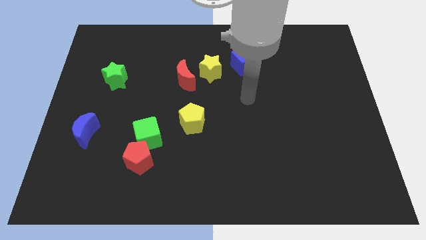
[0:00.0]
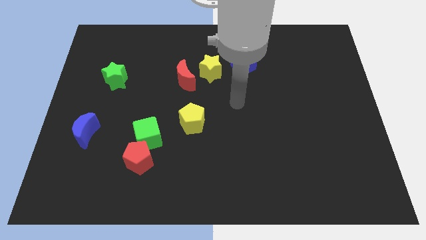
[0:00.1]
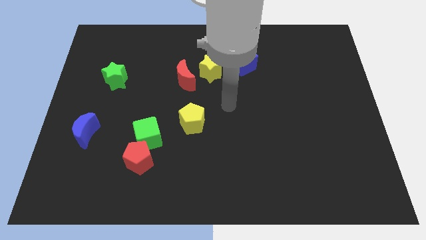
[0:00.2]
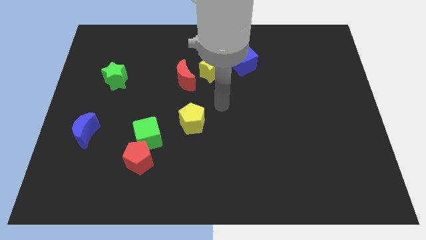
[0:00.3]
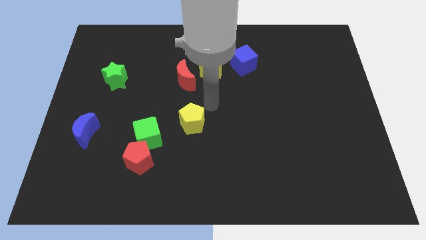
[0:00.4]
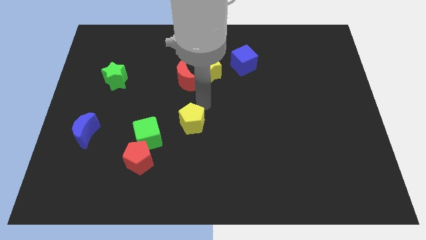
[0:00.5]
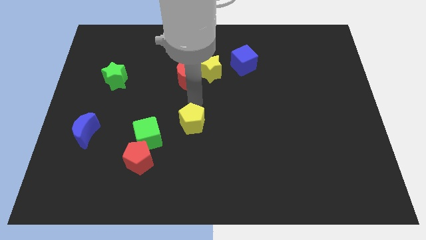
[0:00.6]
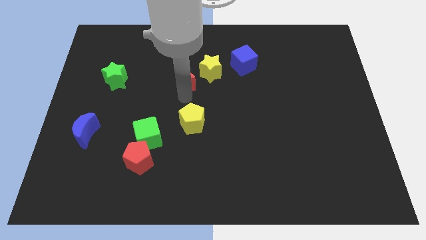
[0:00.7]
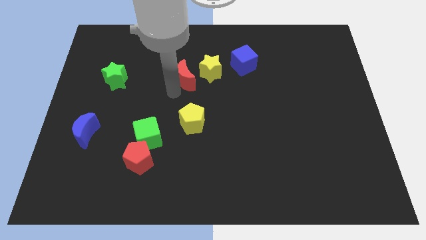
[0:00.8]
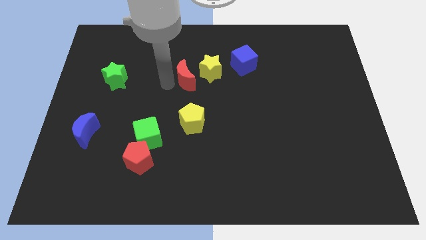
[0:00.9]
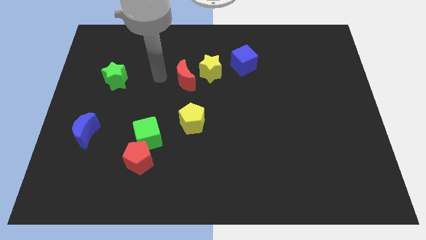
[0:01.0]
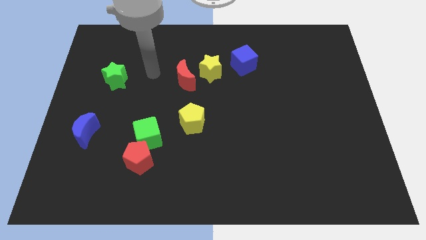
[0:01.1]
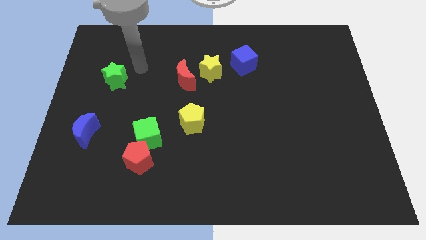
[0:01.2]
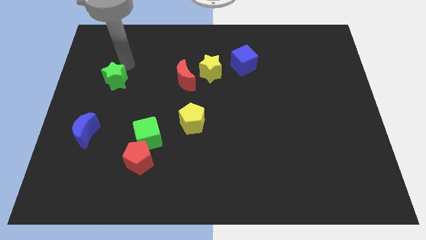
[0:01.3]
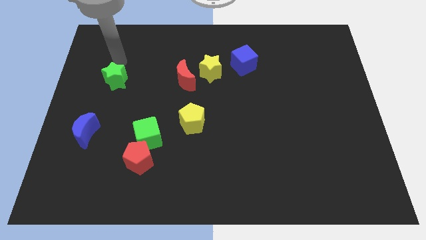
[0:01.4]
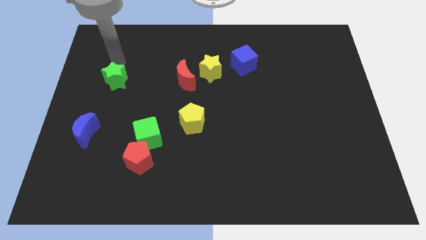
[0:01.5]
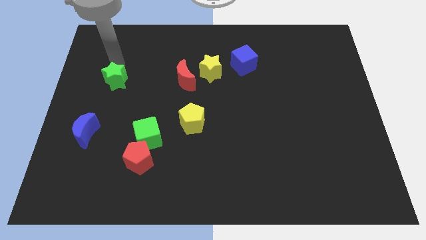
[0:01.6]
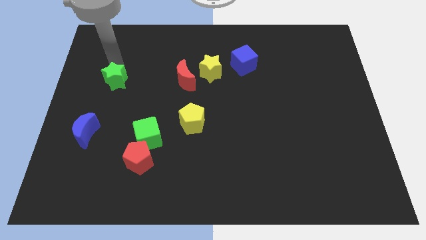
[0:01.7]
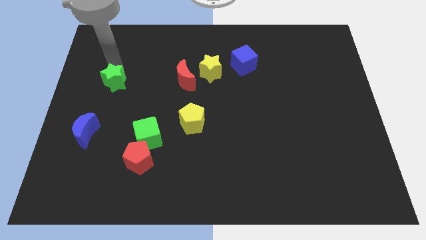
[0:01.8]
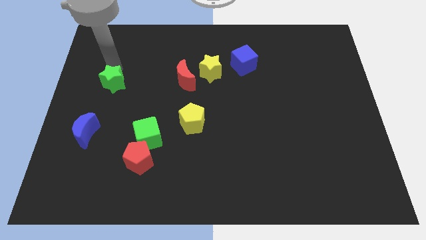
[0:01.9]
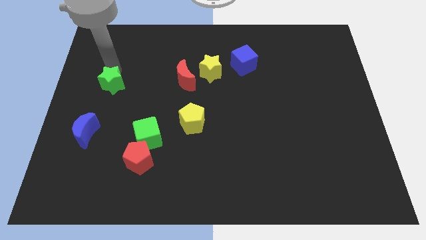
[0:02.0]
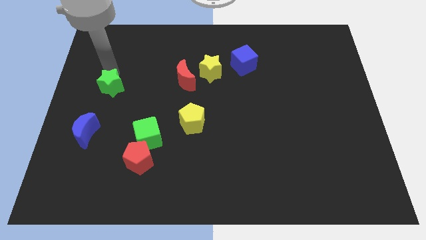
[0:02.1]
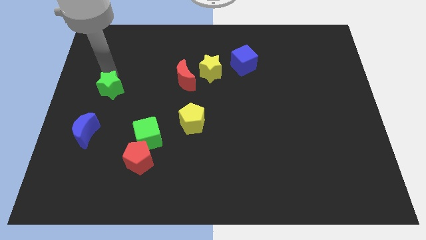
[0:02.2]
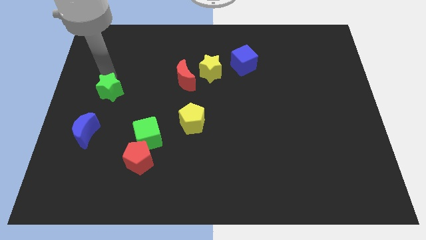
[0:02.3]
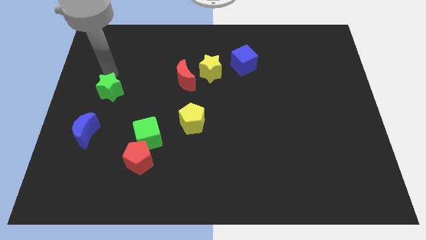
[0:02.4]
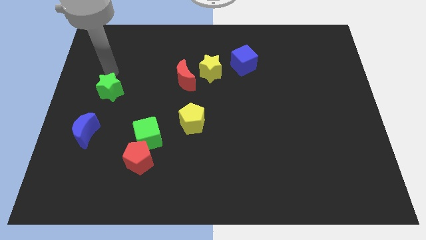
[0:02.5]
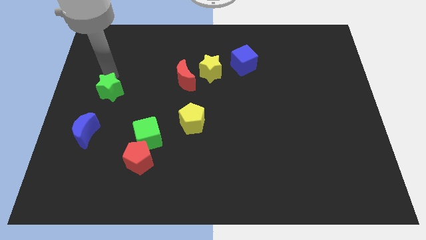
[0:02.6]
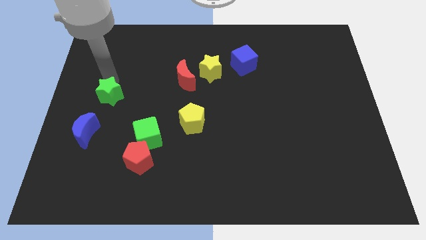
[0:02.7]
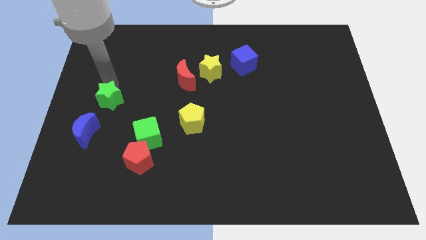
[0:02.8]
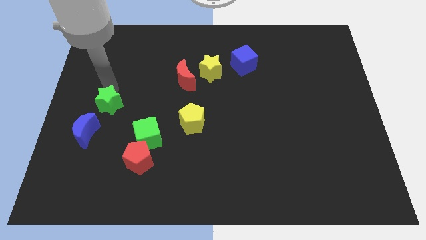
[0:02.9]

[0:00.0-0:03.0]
slightly move the green star downwards

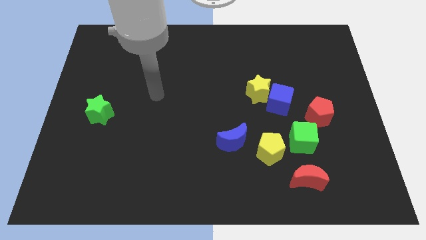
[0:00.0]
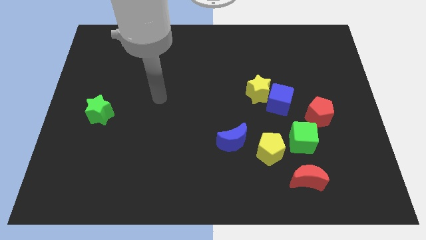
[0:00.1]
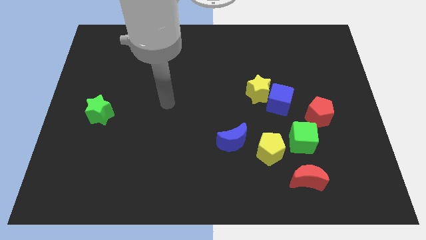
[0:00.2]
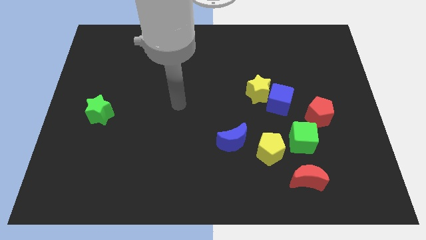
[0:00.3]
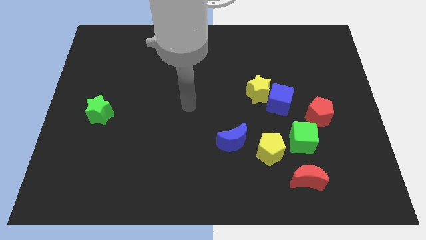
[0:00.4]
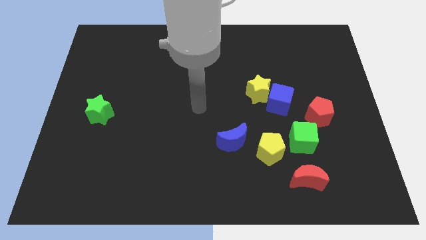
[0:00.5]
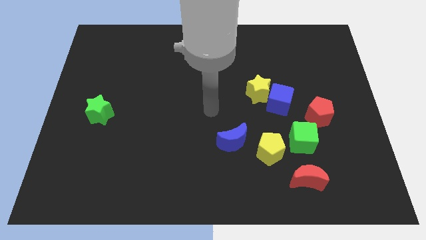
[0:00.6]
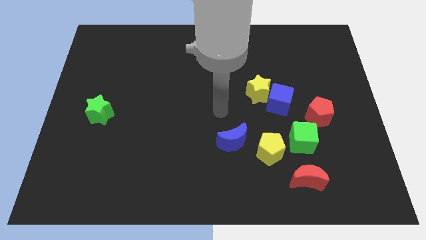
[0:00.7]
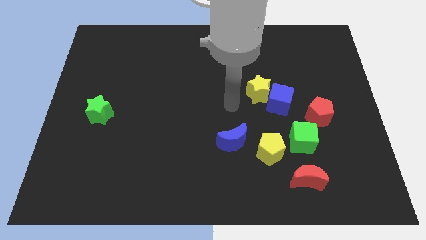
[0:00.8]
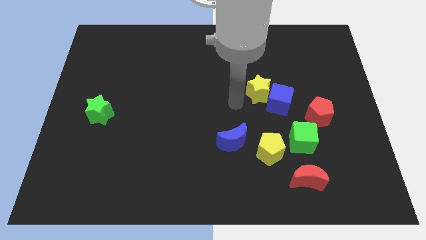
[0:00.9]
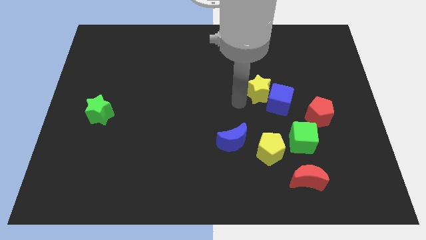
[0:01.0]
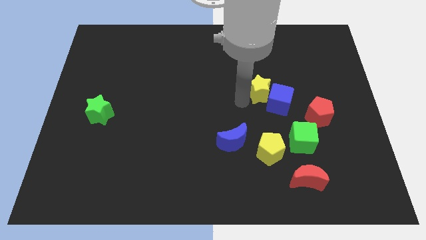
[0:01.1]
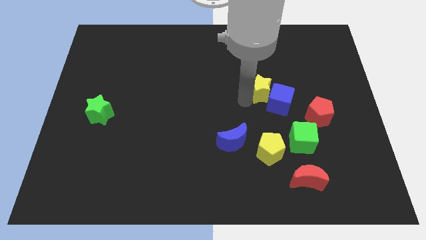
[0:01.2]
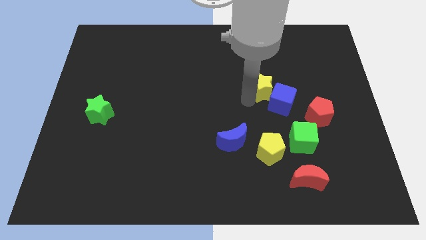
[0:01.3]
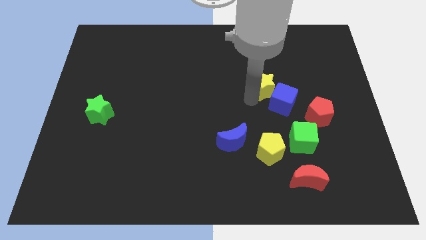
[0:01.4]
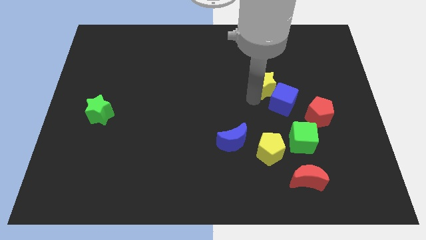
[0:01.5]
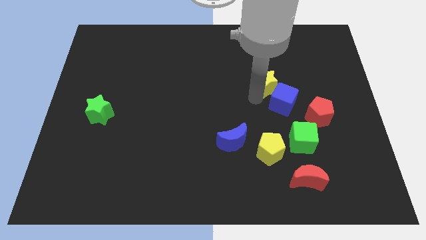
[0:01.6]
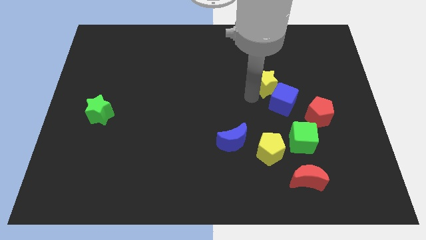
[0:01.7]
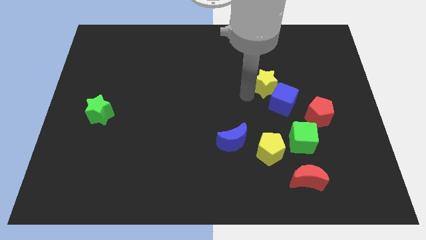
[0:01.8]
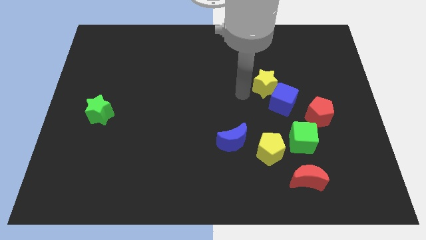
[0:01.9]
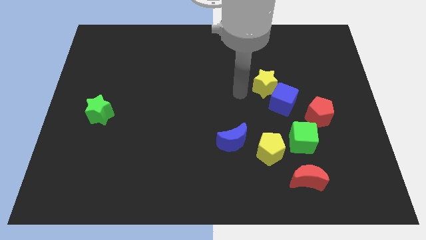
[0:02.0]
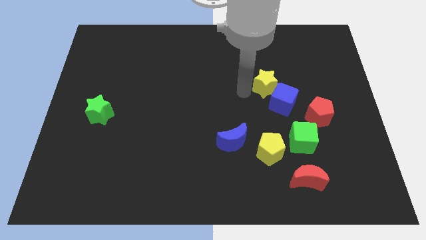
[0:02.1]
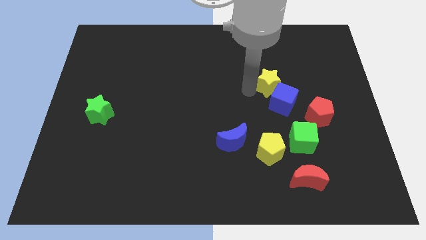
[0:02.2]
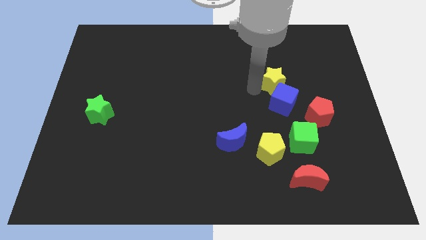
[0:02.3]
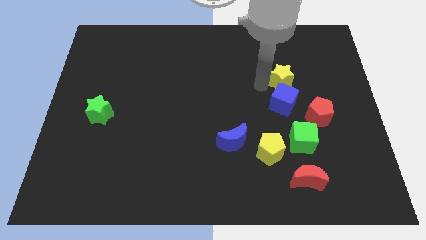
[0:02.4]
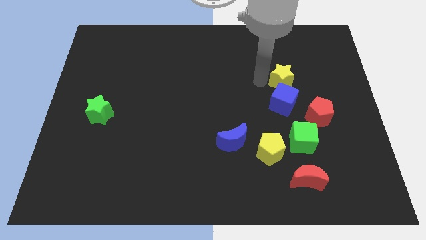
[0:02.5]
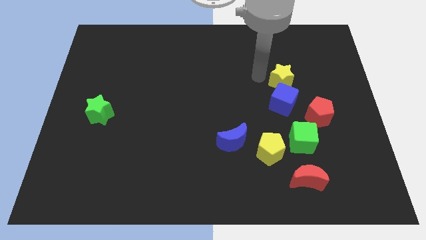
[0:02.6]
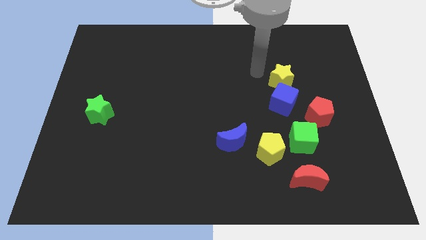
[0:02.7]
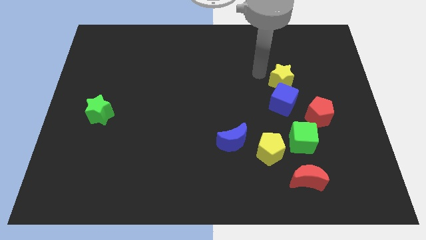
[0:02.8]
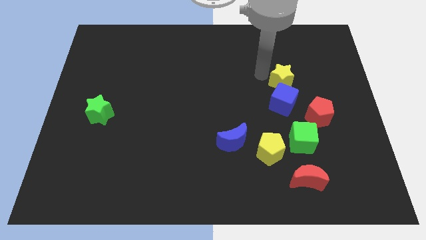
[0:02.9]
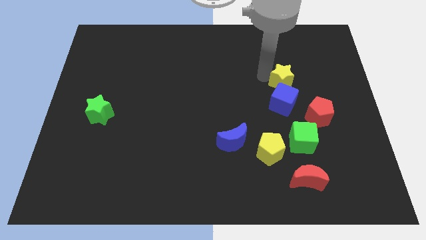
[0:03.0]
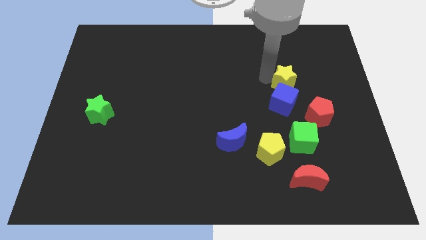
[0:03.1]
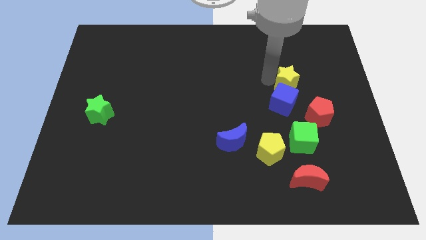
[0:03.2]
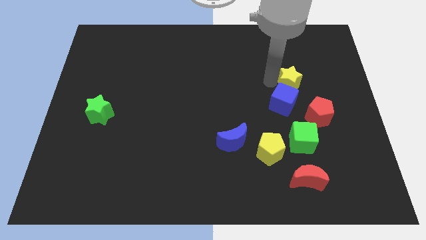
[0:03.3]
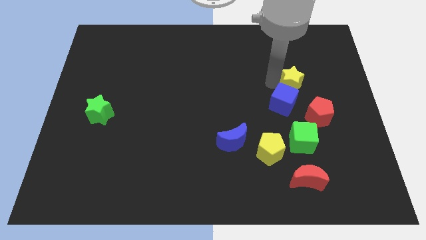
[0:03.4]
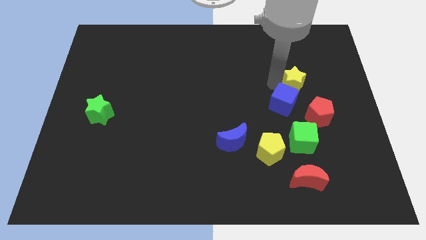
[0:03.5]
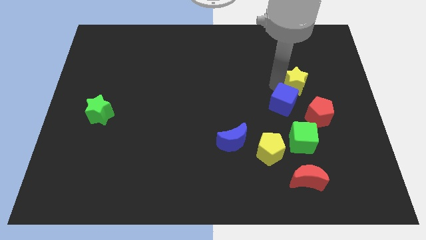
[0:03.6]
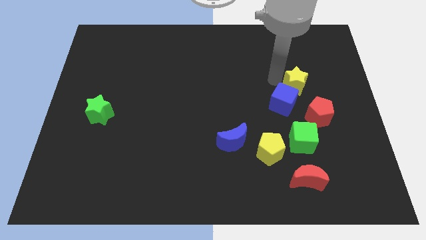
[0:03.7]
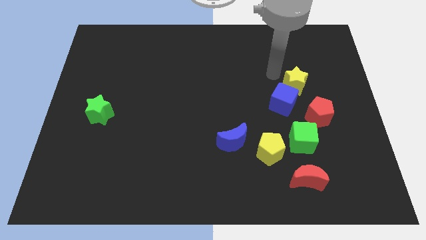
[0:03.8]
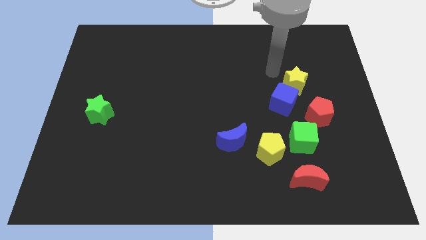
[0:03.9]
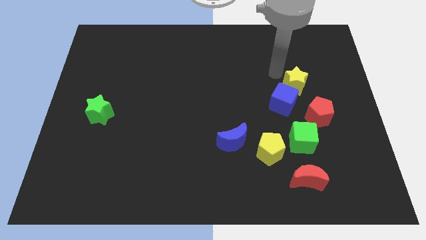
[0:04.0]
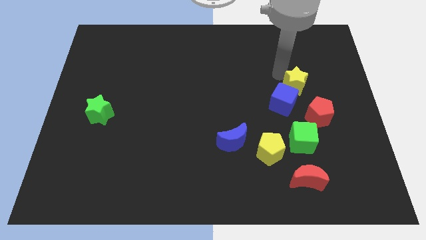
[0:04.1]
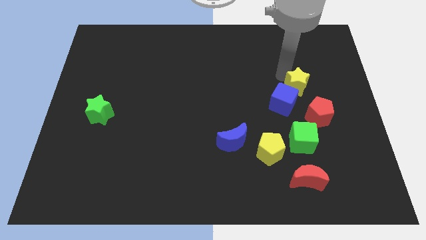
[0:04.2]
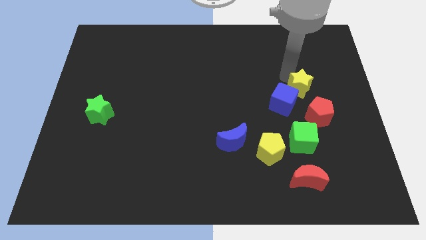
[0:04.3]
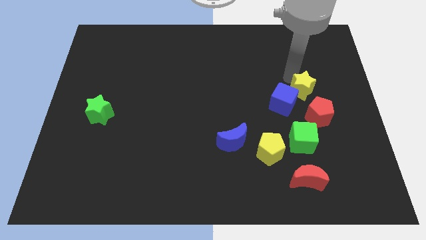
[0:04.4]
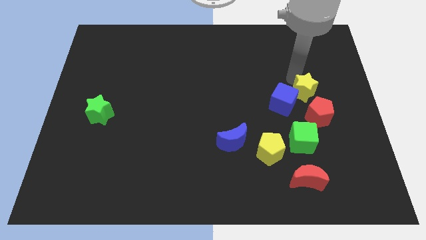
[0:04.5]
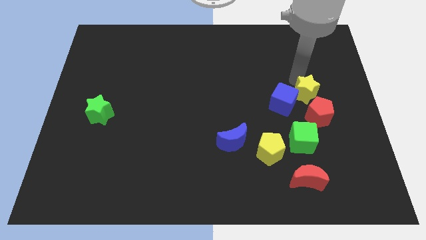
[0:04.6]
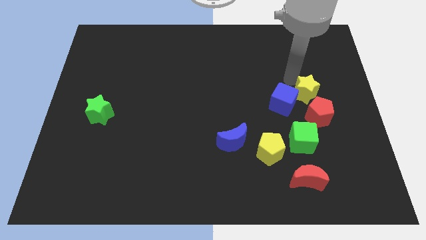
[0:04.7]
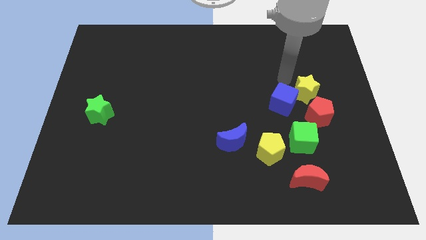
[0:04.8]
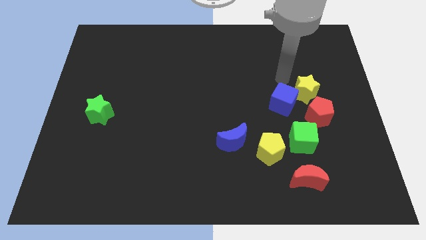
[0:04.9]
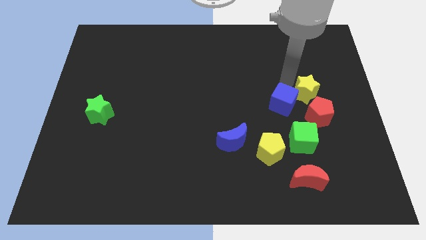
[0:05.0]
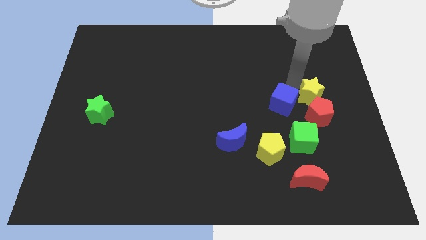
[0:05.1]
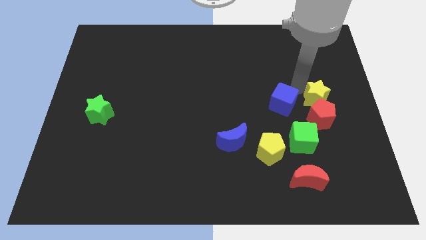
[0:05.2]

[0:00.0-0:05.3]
move the yellow star a little down and right

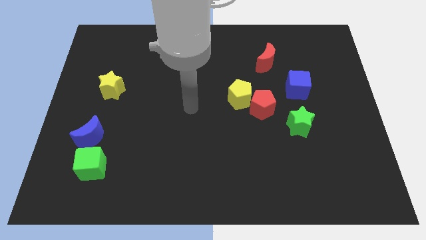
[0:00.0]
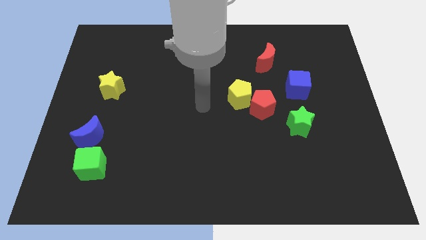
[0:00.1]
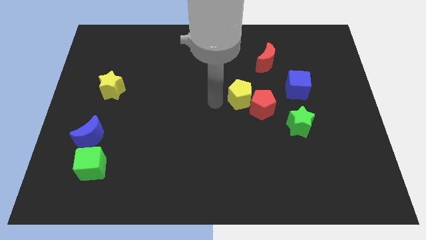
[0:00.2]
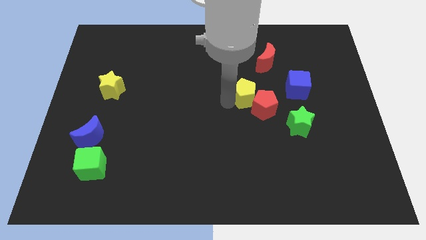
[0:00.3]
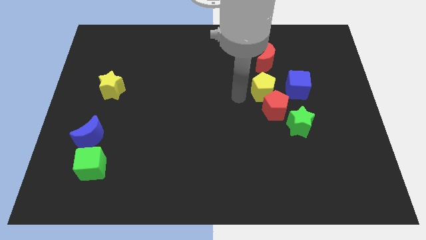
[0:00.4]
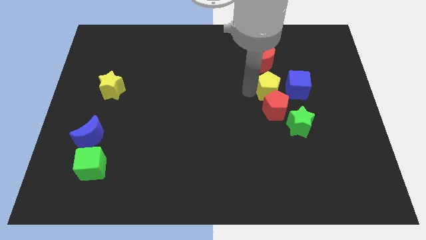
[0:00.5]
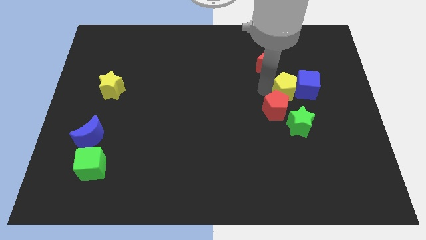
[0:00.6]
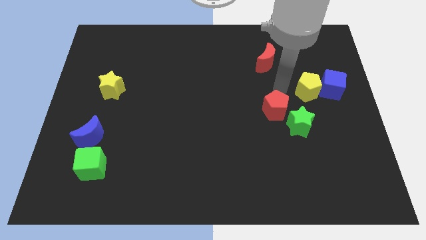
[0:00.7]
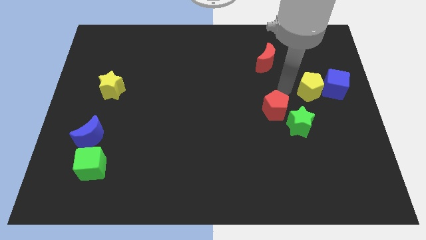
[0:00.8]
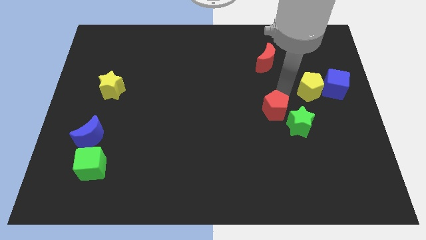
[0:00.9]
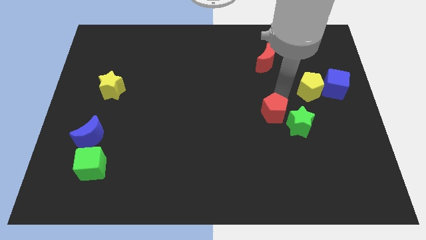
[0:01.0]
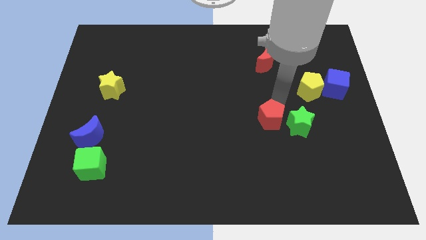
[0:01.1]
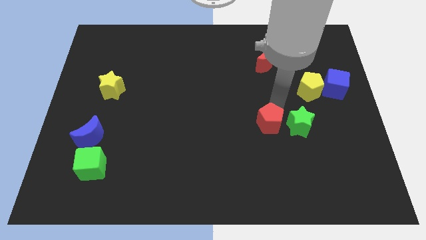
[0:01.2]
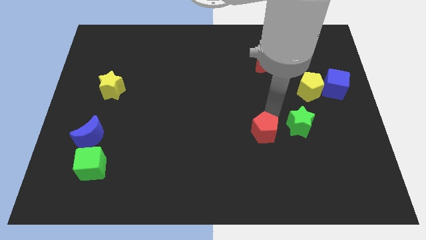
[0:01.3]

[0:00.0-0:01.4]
move the red pentagon a bit downwards
